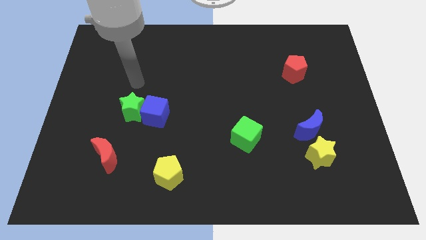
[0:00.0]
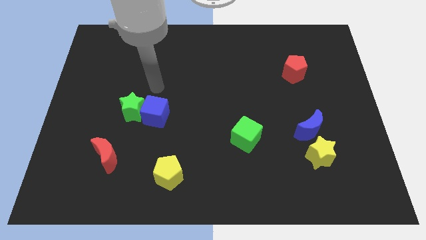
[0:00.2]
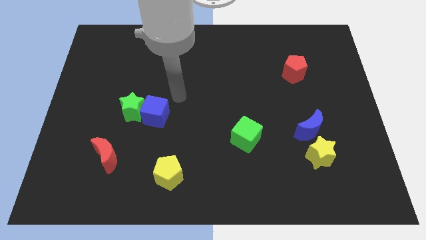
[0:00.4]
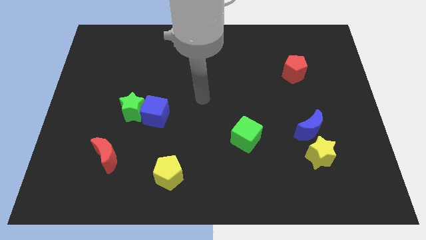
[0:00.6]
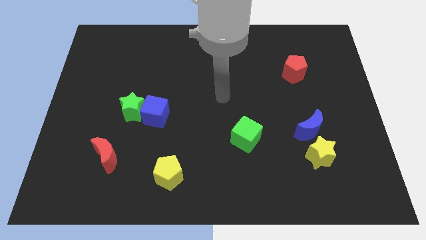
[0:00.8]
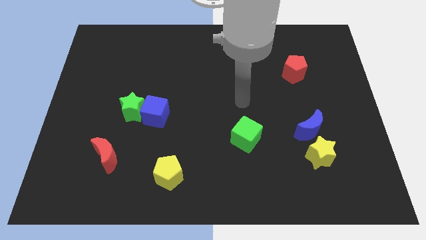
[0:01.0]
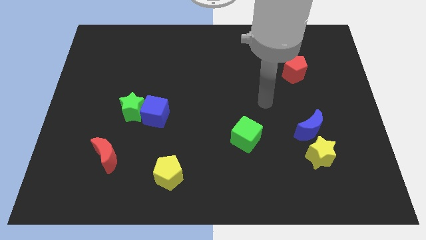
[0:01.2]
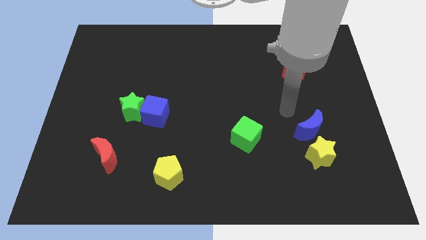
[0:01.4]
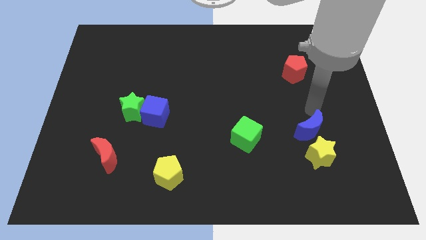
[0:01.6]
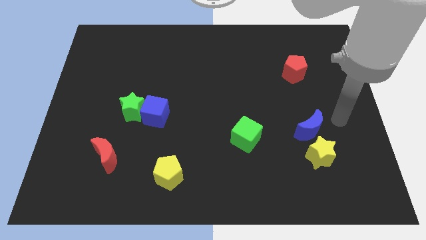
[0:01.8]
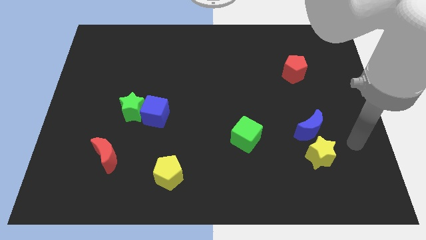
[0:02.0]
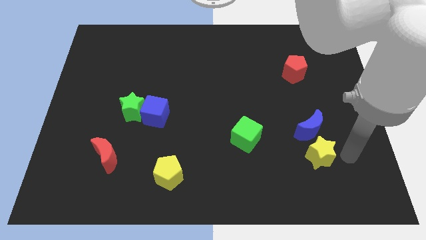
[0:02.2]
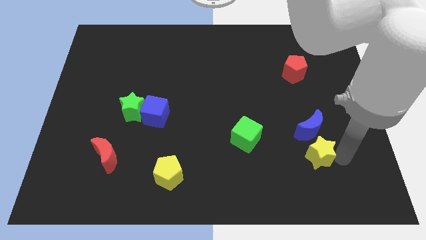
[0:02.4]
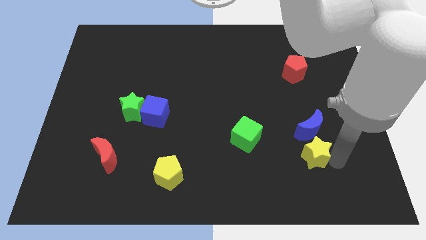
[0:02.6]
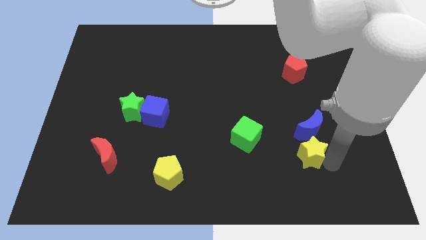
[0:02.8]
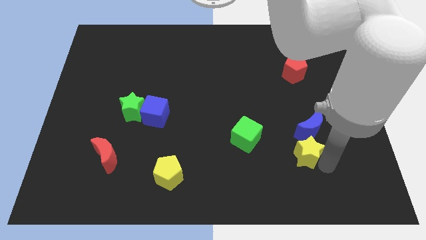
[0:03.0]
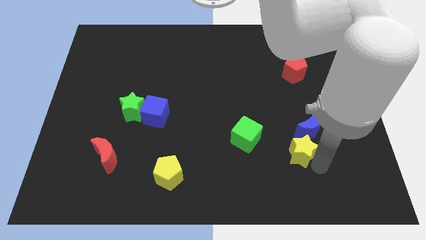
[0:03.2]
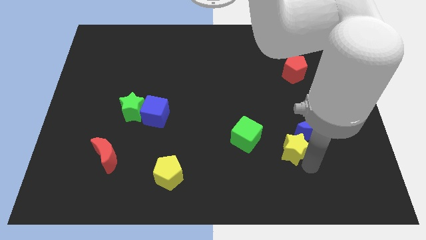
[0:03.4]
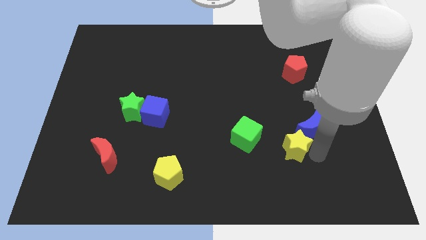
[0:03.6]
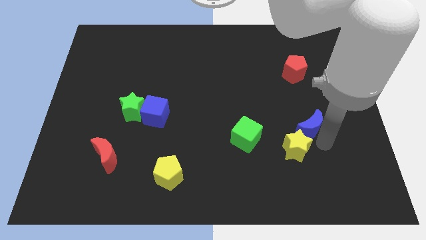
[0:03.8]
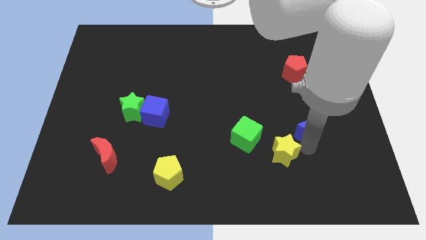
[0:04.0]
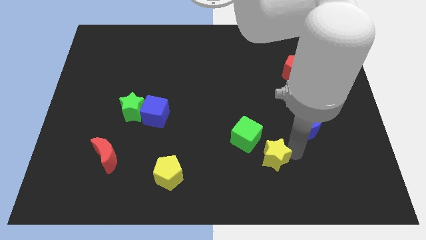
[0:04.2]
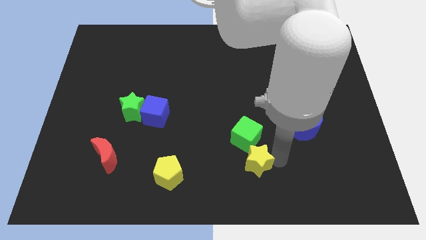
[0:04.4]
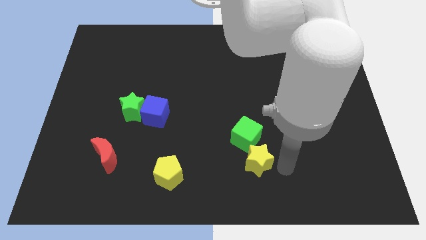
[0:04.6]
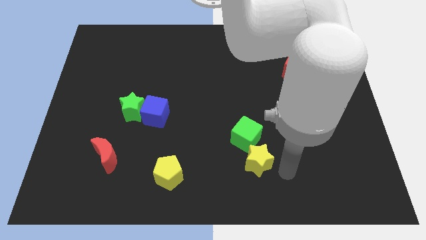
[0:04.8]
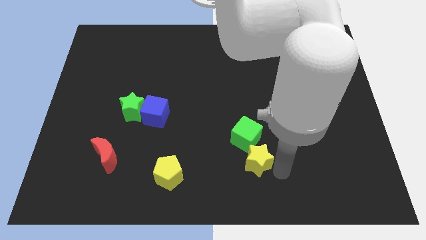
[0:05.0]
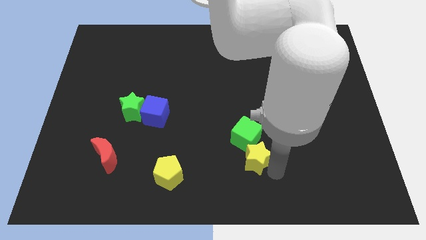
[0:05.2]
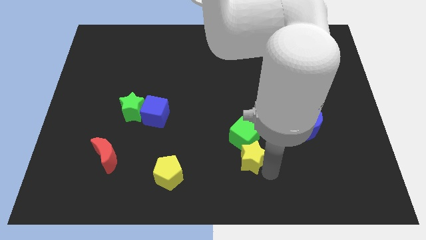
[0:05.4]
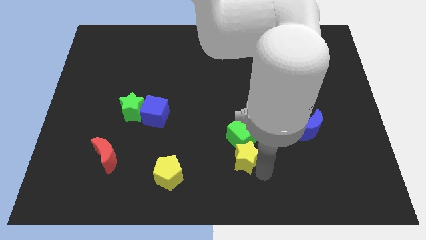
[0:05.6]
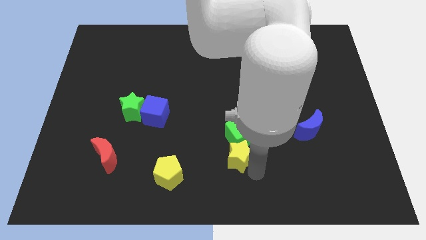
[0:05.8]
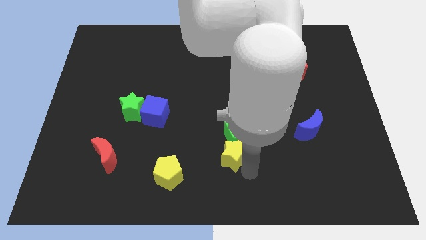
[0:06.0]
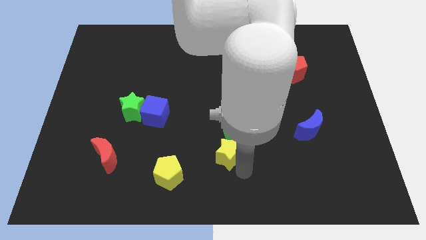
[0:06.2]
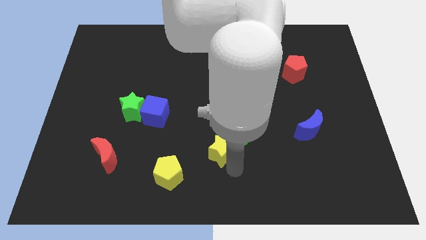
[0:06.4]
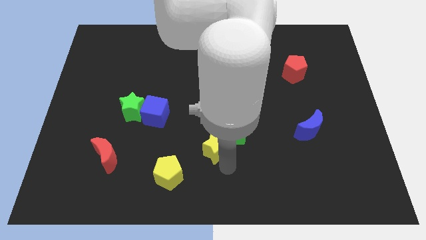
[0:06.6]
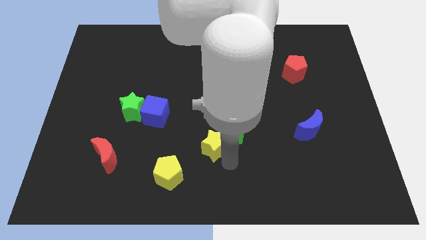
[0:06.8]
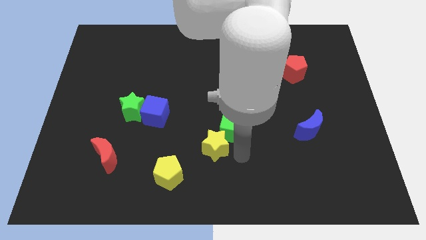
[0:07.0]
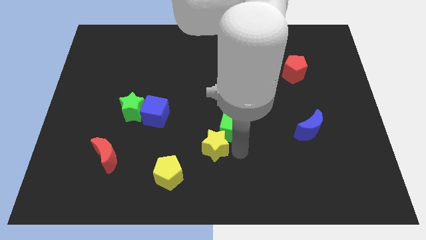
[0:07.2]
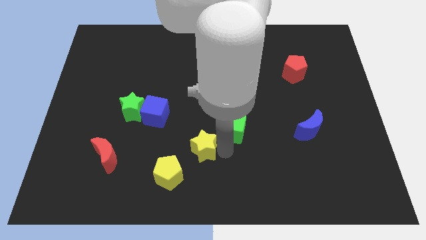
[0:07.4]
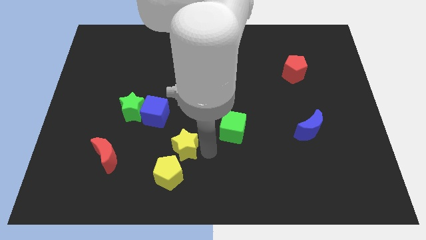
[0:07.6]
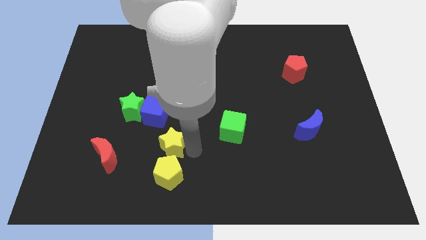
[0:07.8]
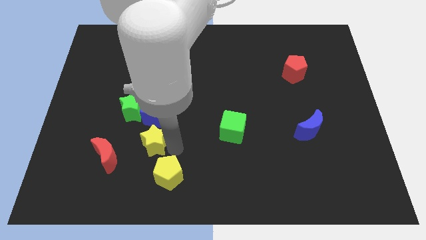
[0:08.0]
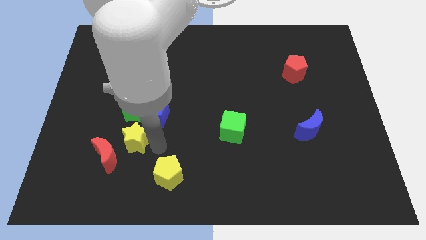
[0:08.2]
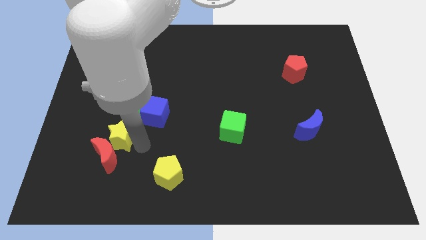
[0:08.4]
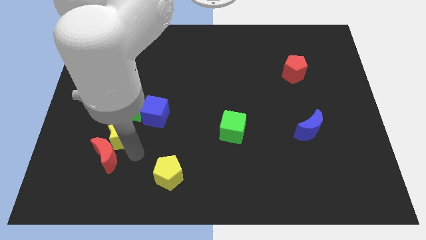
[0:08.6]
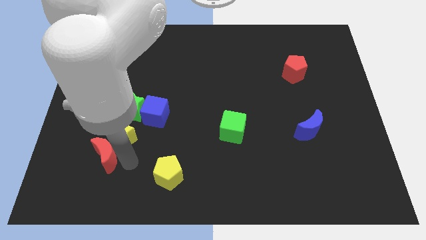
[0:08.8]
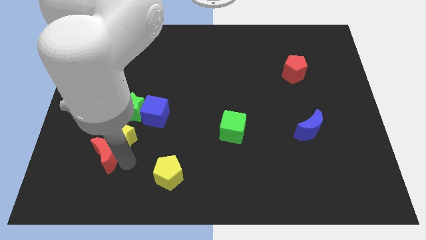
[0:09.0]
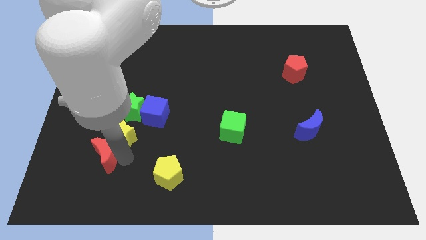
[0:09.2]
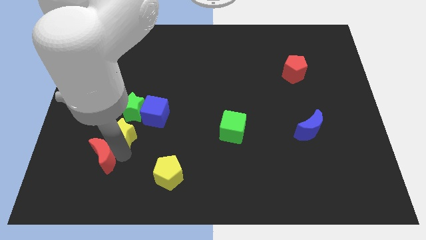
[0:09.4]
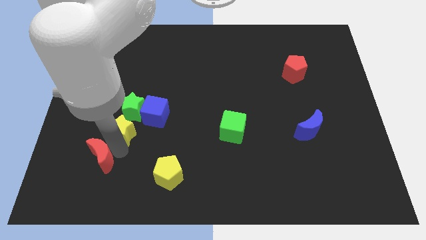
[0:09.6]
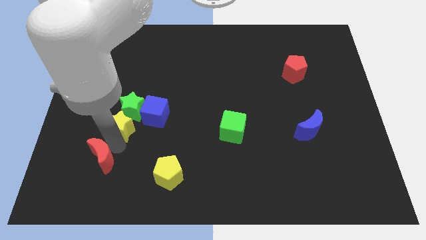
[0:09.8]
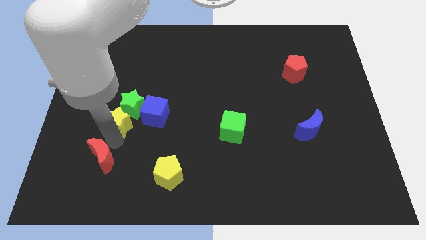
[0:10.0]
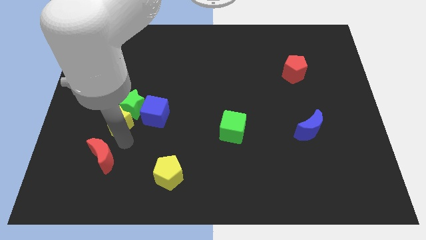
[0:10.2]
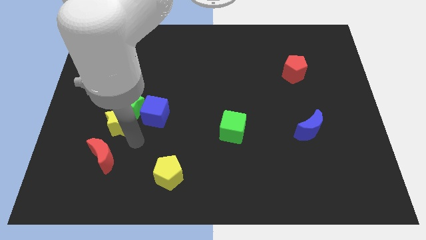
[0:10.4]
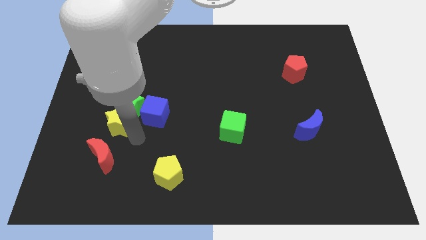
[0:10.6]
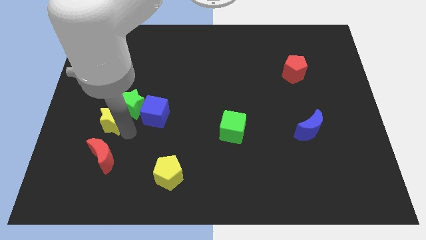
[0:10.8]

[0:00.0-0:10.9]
push the yellow star to the left of the green star

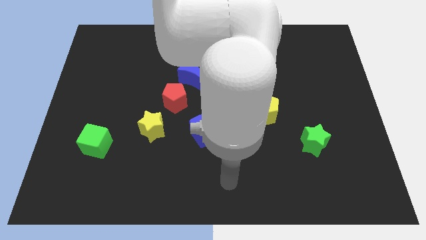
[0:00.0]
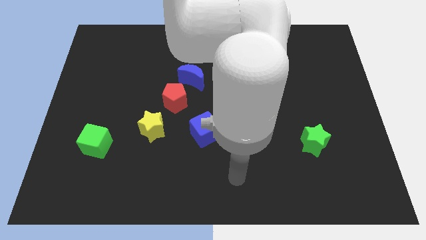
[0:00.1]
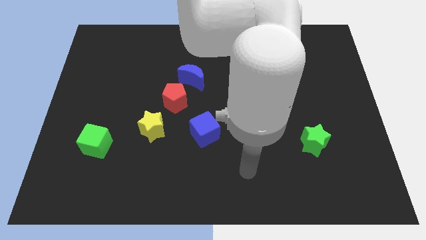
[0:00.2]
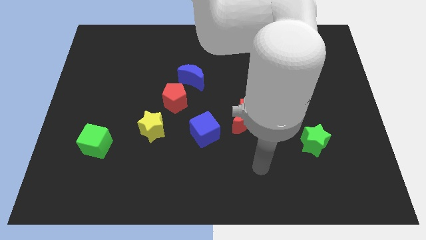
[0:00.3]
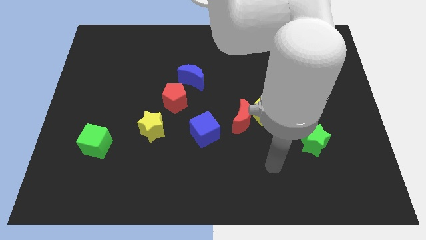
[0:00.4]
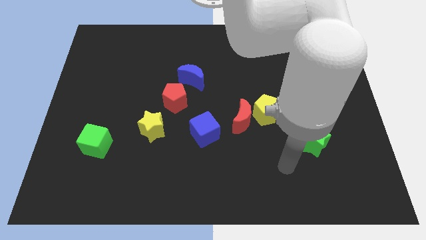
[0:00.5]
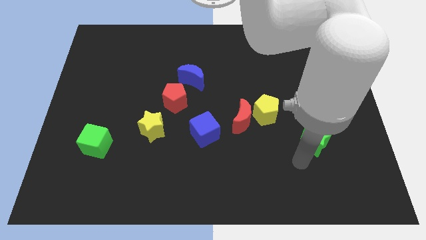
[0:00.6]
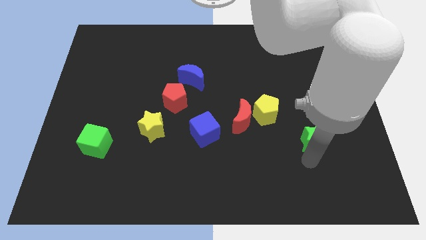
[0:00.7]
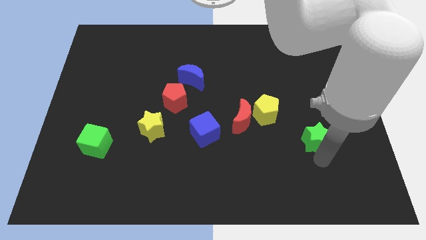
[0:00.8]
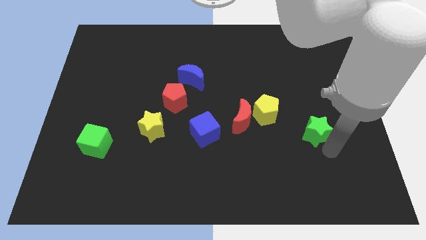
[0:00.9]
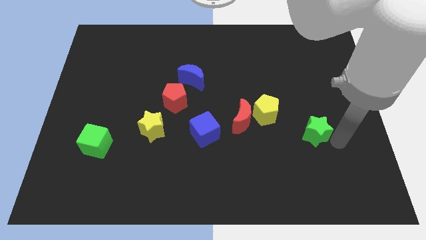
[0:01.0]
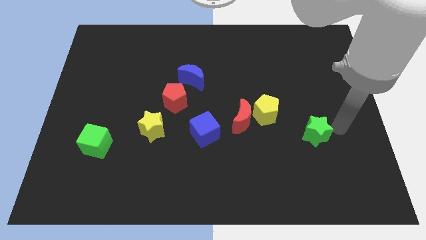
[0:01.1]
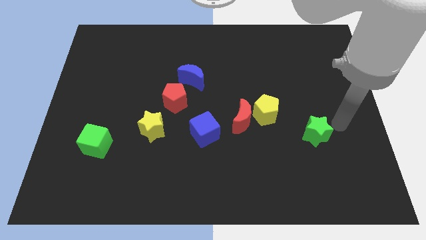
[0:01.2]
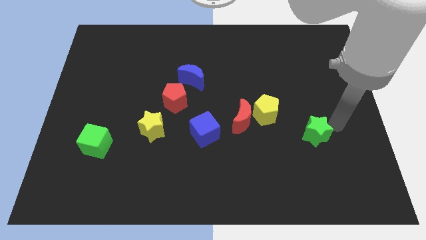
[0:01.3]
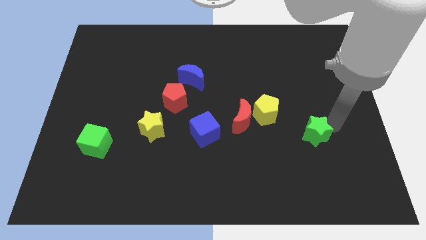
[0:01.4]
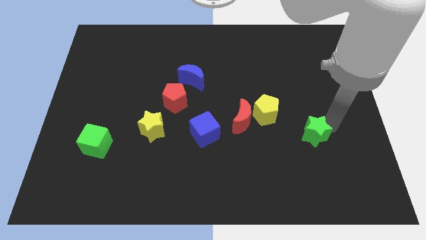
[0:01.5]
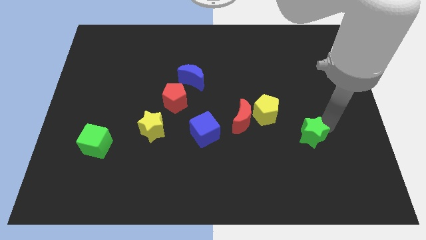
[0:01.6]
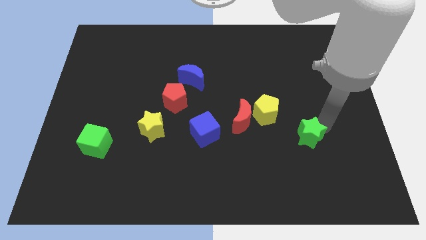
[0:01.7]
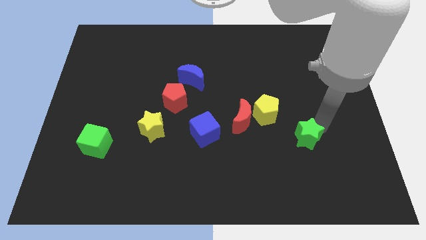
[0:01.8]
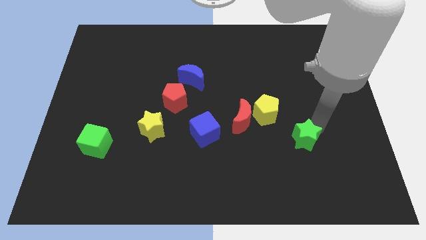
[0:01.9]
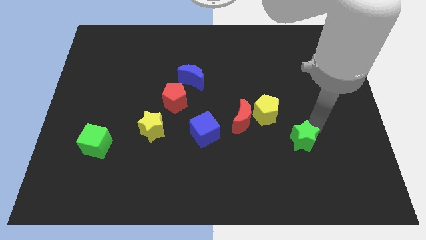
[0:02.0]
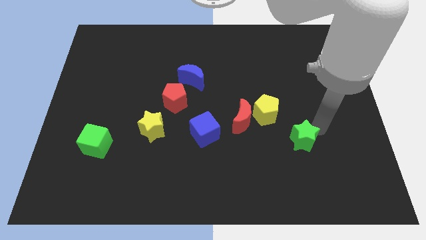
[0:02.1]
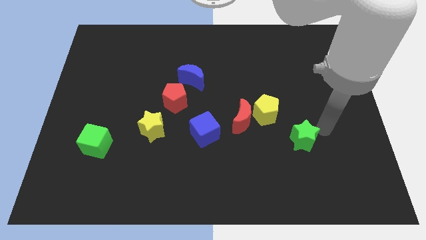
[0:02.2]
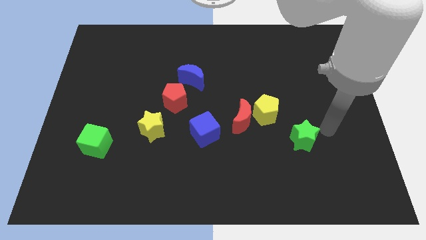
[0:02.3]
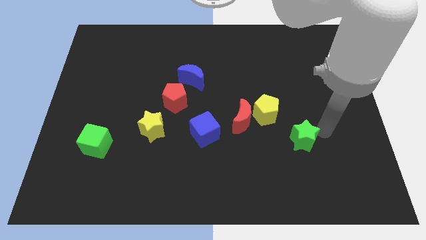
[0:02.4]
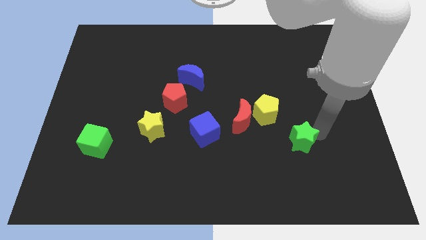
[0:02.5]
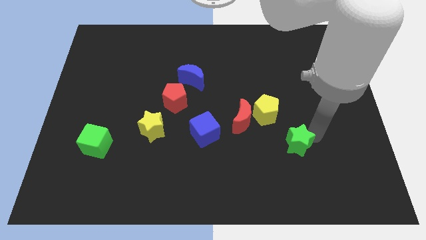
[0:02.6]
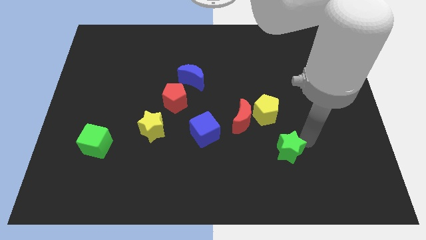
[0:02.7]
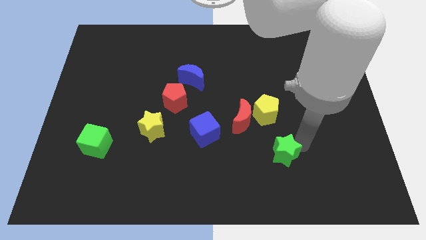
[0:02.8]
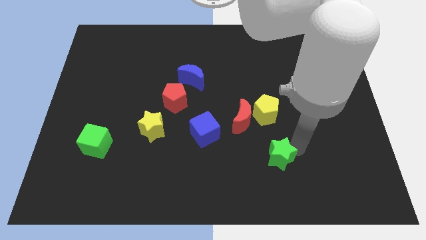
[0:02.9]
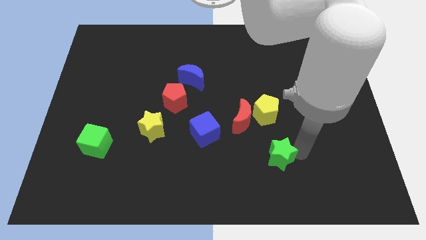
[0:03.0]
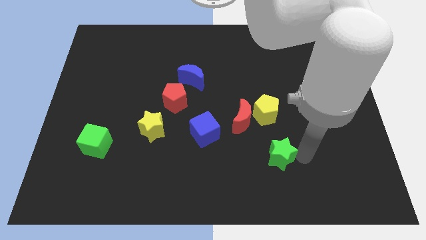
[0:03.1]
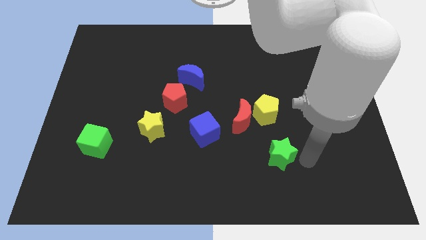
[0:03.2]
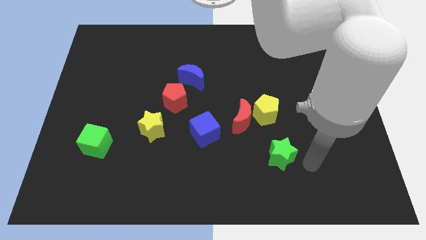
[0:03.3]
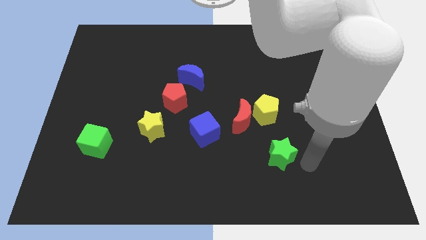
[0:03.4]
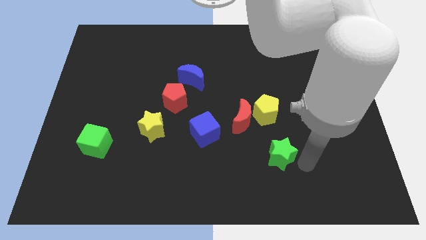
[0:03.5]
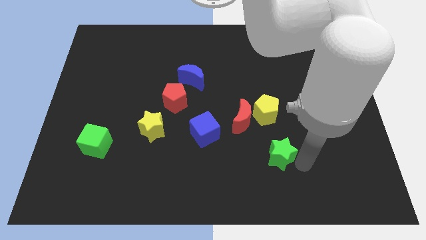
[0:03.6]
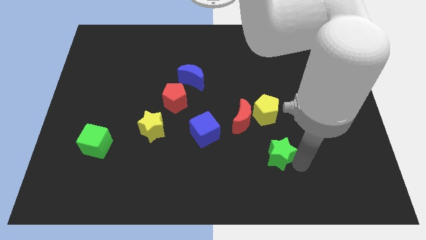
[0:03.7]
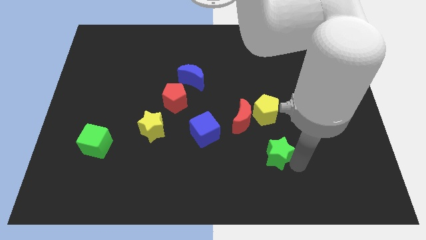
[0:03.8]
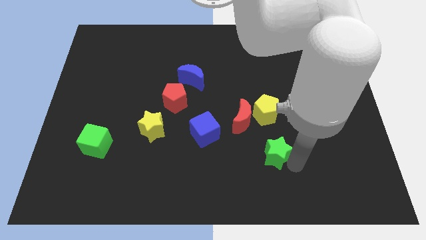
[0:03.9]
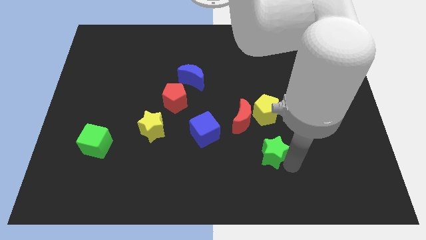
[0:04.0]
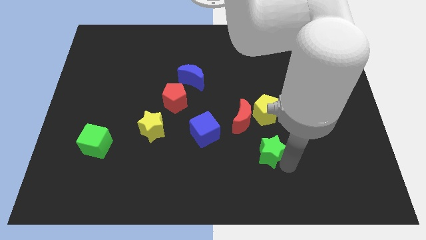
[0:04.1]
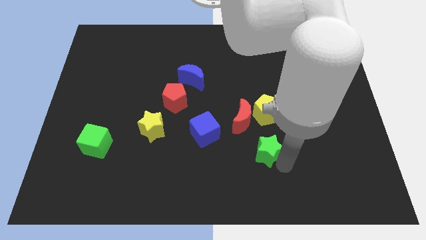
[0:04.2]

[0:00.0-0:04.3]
push the green star to the bottom side of the red moon
